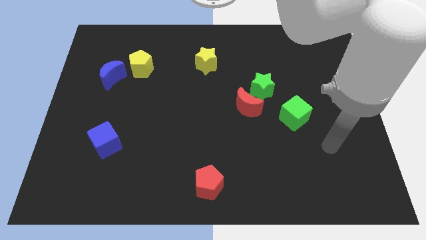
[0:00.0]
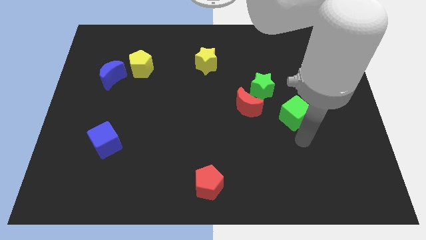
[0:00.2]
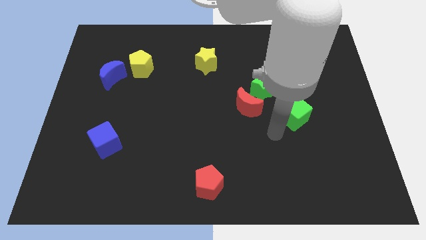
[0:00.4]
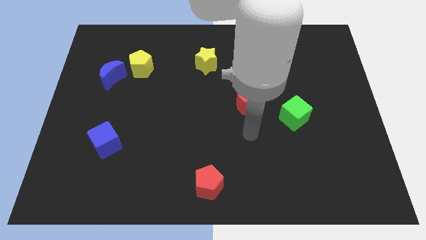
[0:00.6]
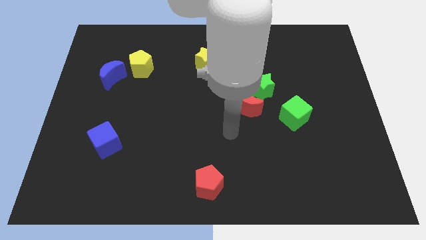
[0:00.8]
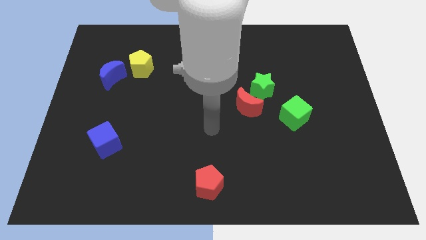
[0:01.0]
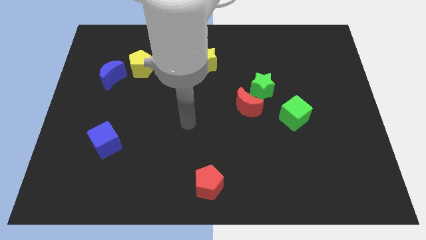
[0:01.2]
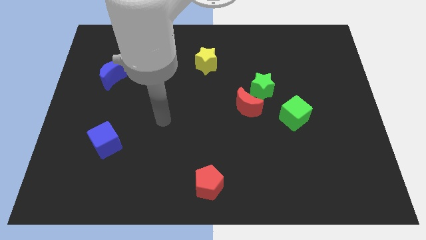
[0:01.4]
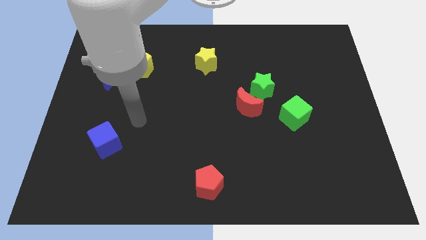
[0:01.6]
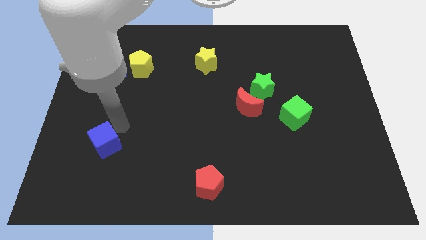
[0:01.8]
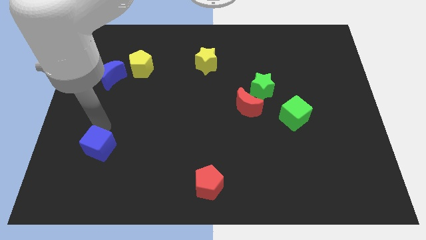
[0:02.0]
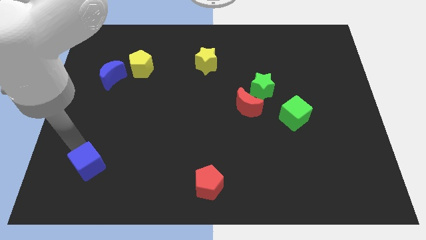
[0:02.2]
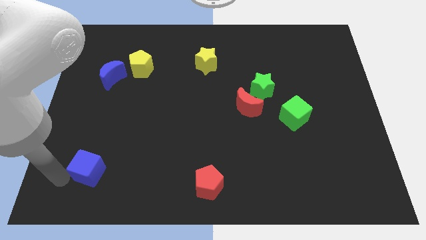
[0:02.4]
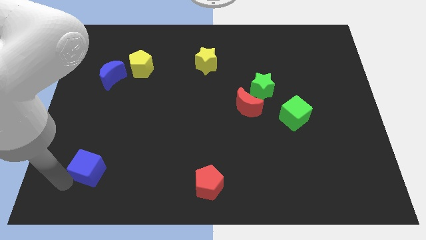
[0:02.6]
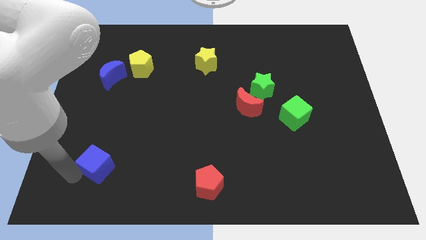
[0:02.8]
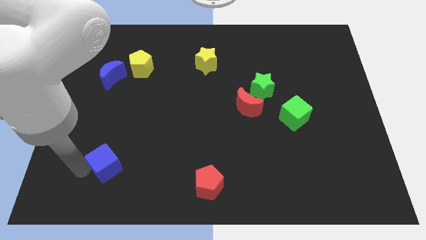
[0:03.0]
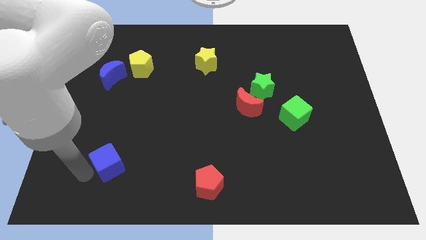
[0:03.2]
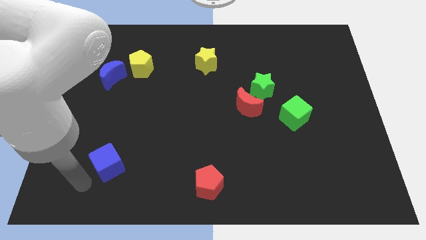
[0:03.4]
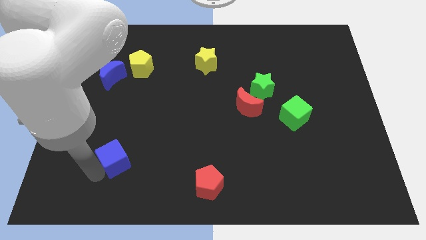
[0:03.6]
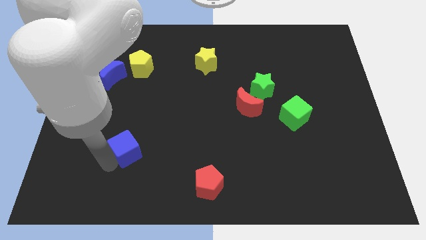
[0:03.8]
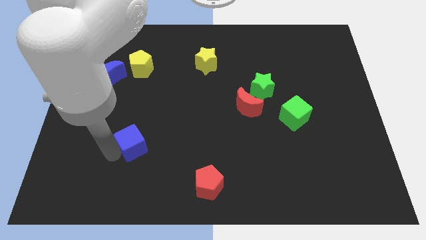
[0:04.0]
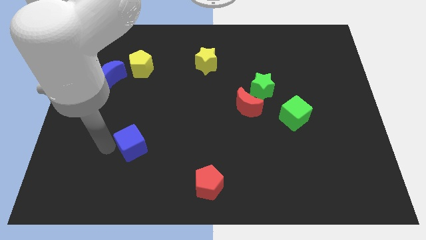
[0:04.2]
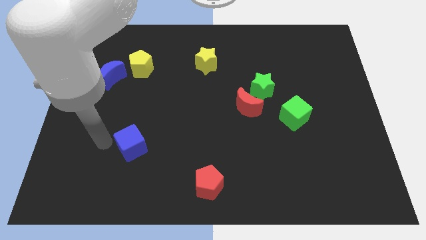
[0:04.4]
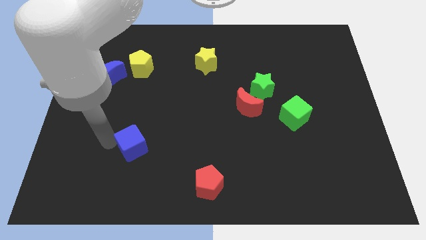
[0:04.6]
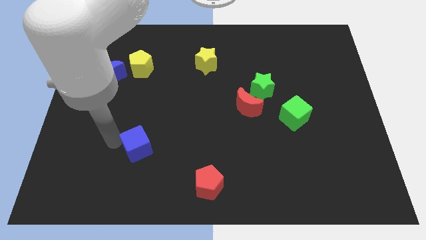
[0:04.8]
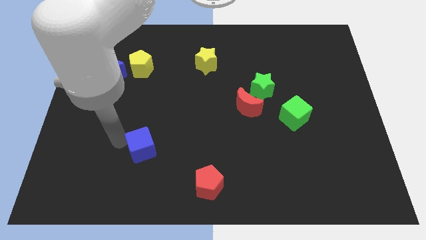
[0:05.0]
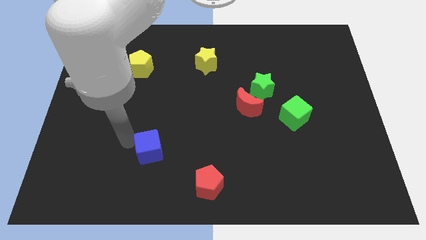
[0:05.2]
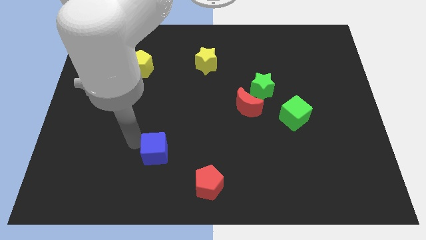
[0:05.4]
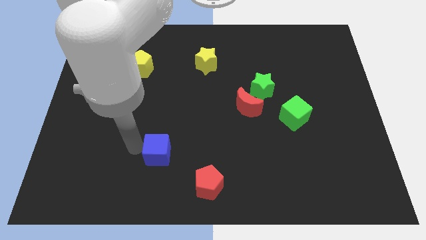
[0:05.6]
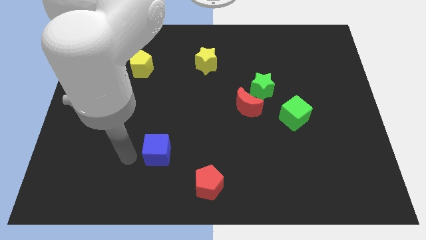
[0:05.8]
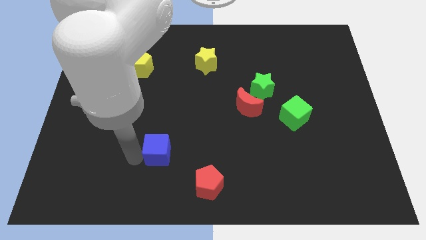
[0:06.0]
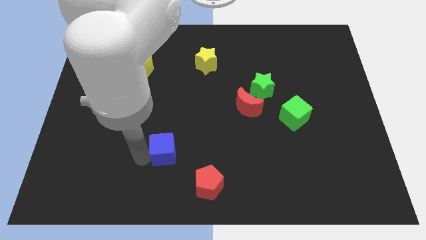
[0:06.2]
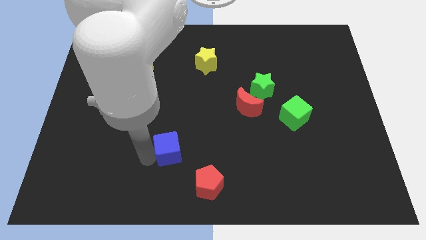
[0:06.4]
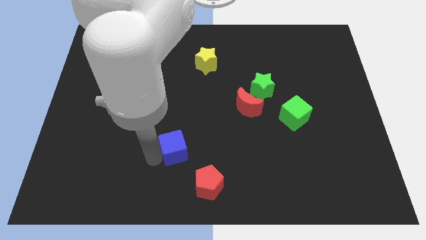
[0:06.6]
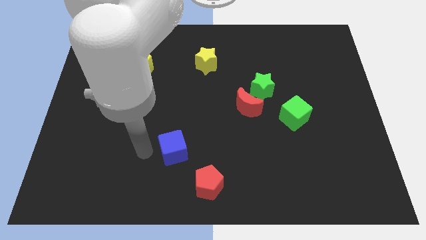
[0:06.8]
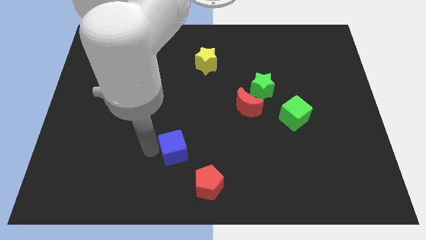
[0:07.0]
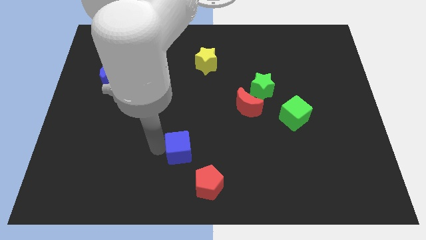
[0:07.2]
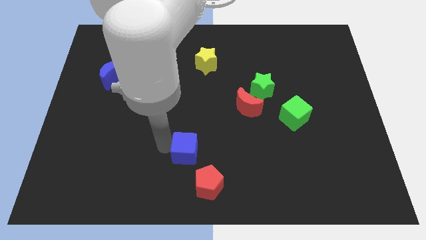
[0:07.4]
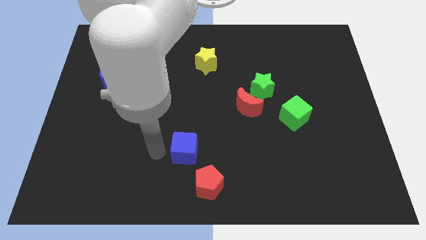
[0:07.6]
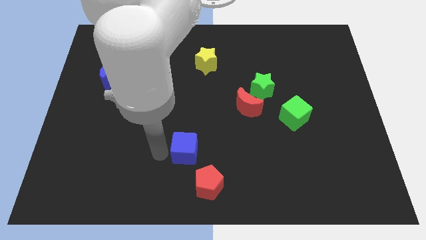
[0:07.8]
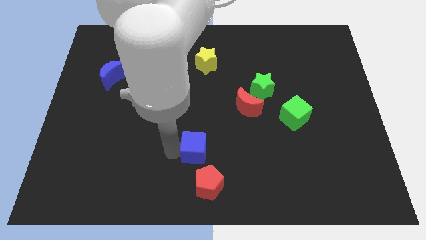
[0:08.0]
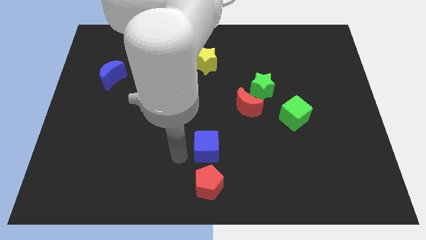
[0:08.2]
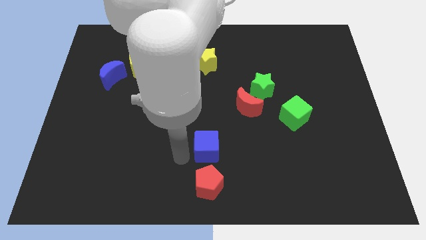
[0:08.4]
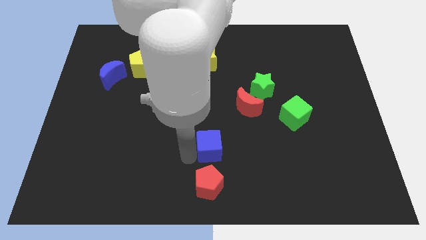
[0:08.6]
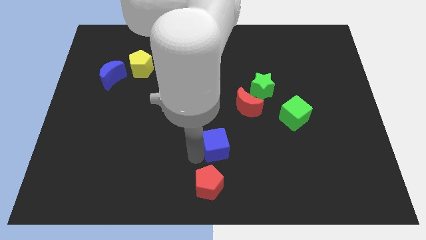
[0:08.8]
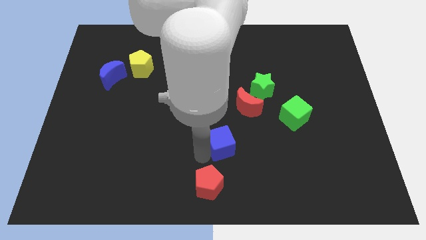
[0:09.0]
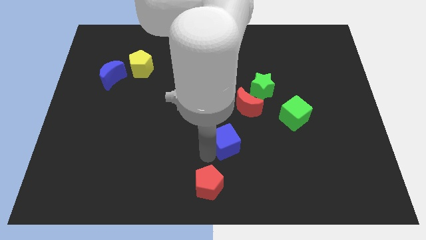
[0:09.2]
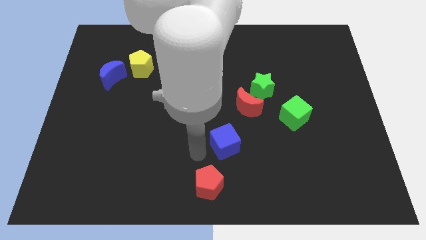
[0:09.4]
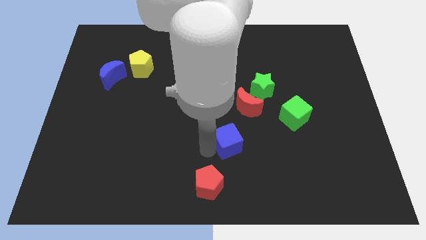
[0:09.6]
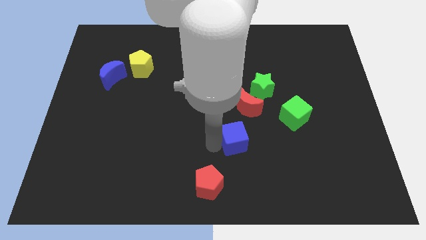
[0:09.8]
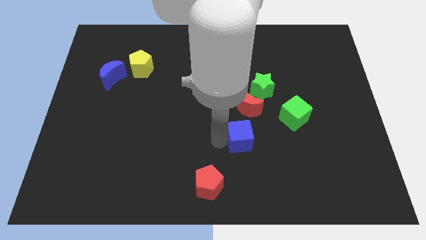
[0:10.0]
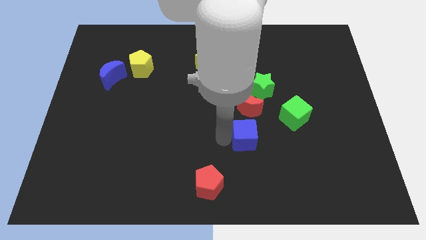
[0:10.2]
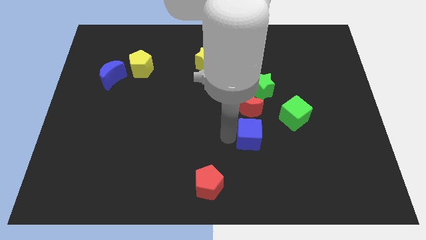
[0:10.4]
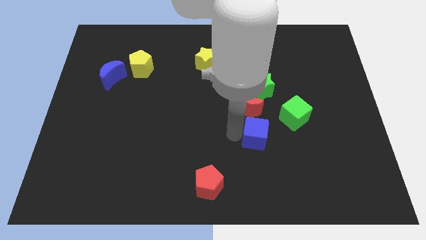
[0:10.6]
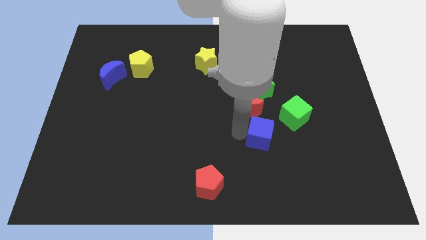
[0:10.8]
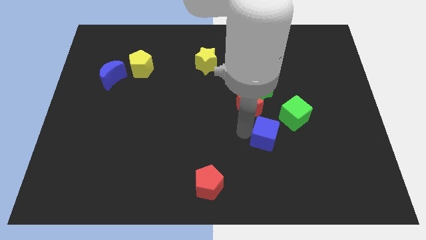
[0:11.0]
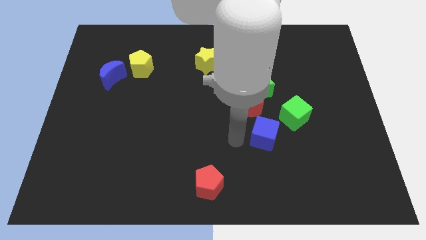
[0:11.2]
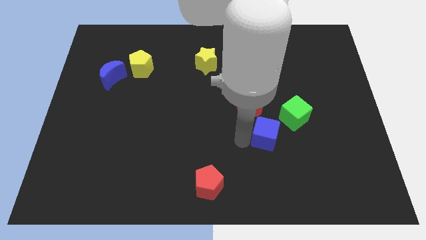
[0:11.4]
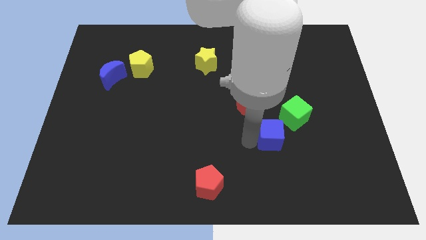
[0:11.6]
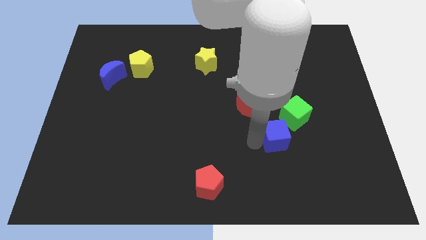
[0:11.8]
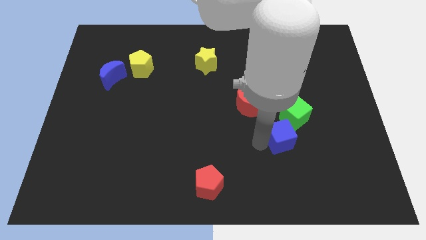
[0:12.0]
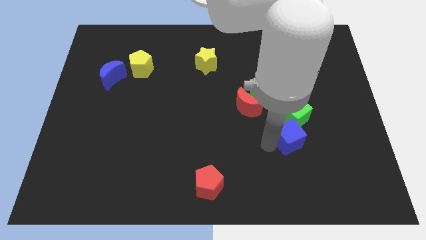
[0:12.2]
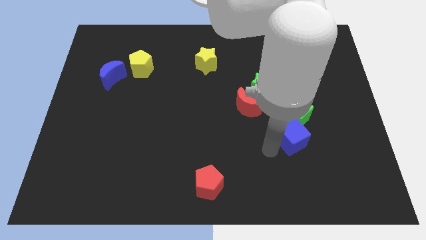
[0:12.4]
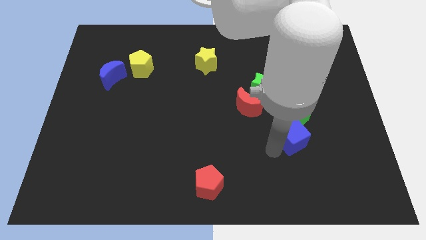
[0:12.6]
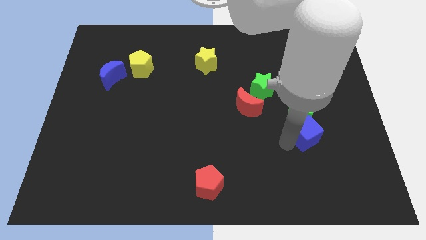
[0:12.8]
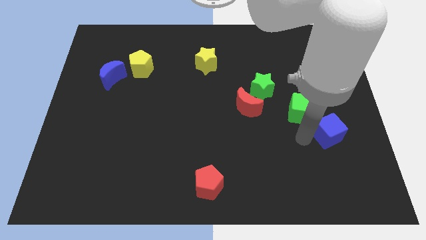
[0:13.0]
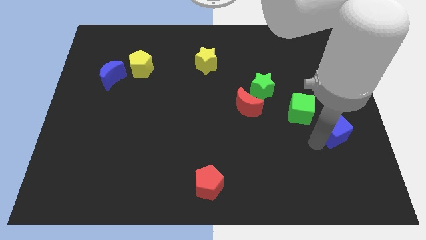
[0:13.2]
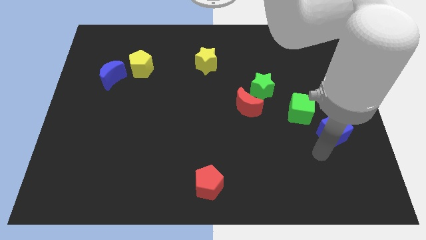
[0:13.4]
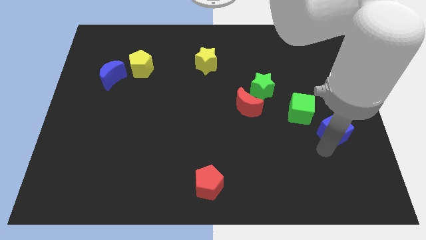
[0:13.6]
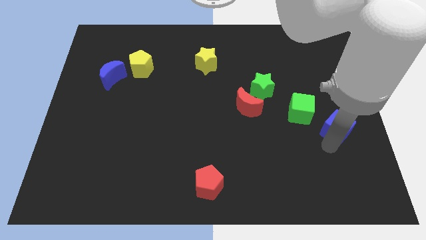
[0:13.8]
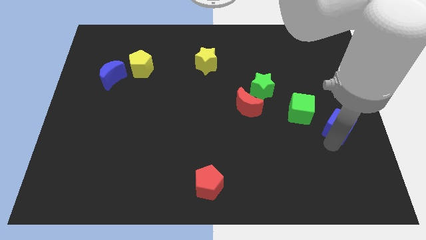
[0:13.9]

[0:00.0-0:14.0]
put the blue cube to the right of the green cube
